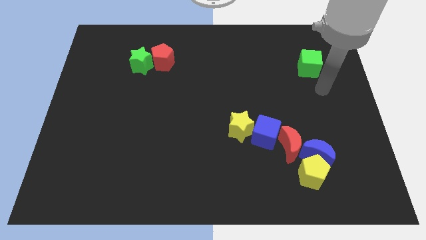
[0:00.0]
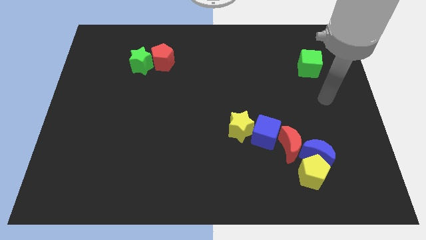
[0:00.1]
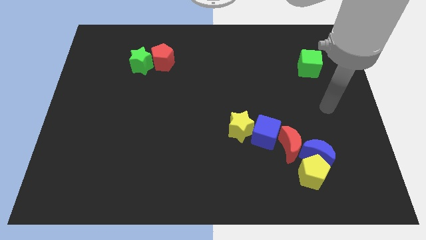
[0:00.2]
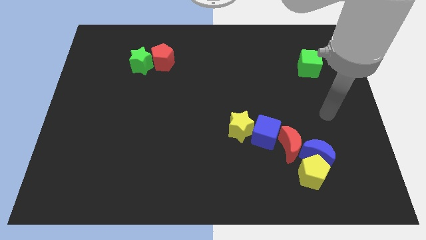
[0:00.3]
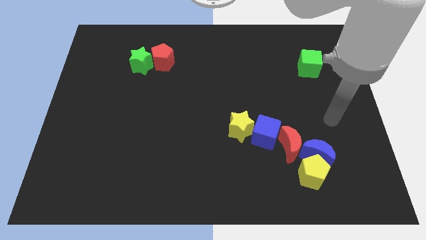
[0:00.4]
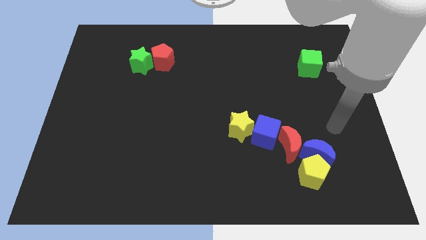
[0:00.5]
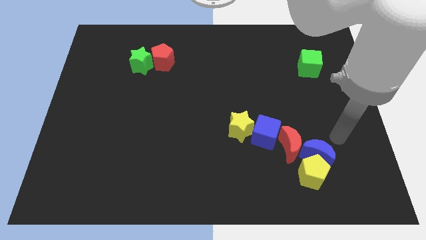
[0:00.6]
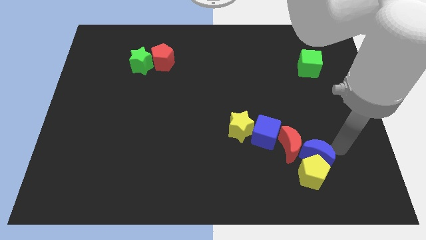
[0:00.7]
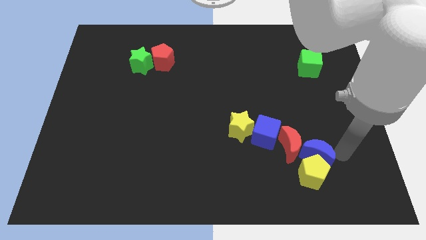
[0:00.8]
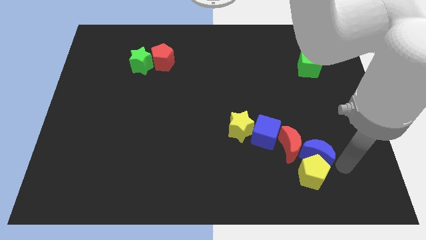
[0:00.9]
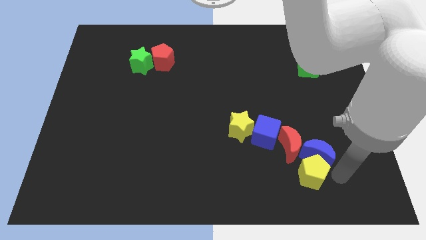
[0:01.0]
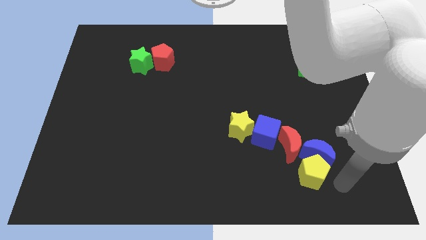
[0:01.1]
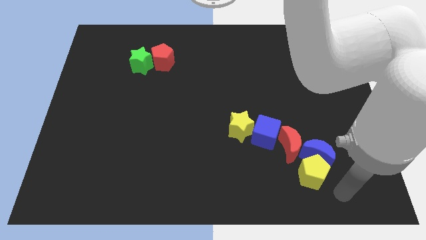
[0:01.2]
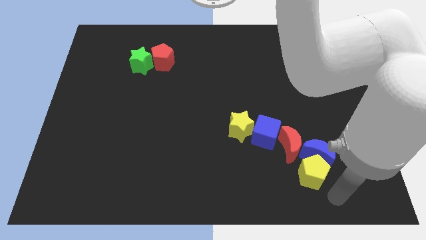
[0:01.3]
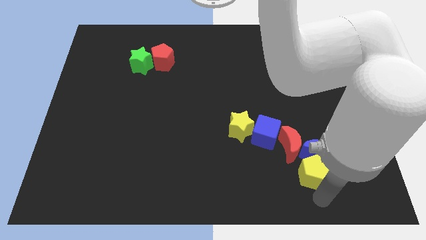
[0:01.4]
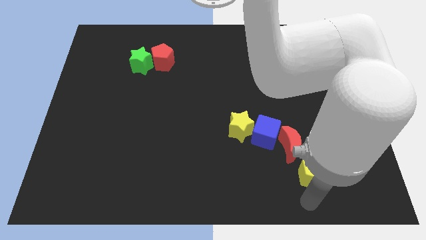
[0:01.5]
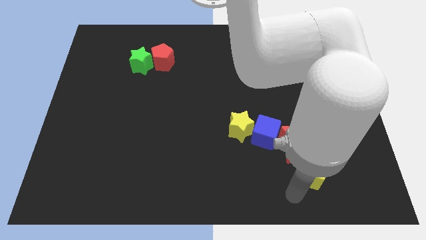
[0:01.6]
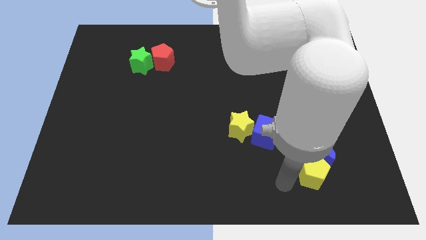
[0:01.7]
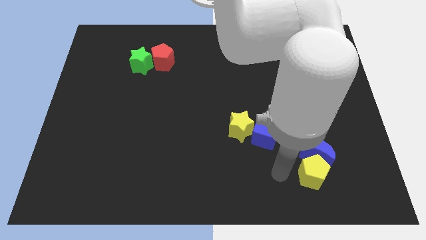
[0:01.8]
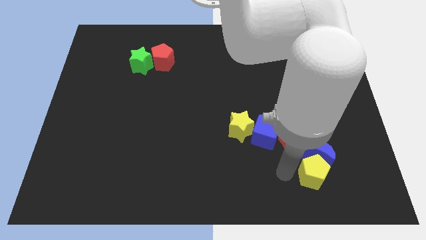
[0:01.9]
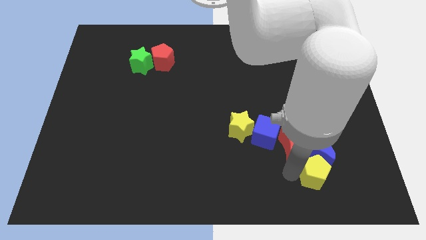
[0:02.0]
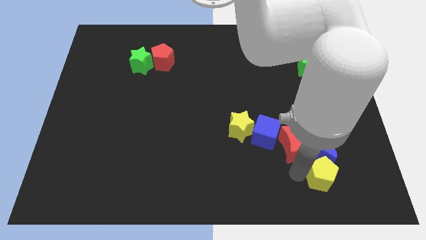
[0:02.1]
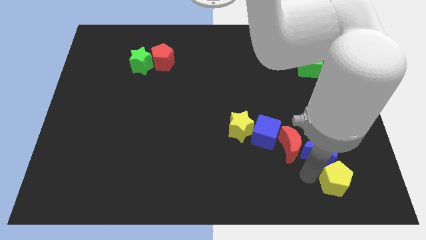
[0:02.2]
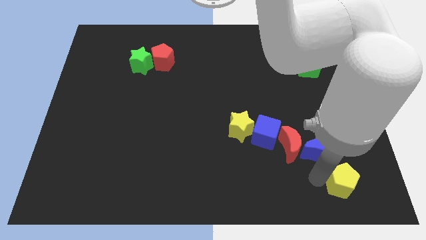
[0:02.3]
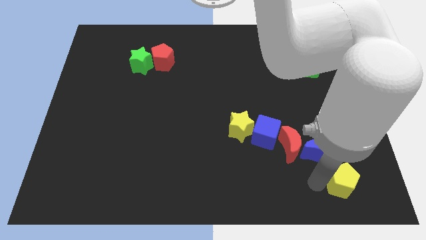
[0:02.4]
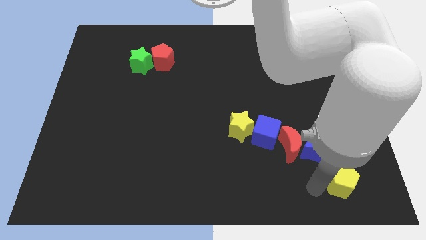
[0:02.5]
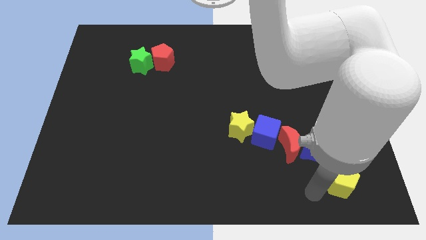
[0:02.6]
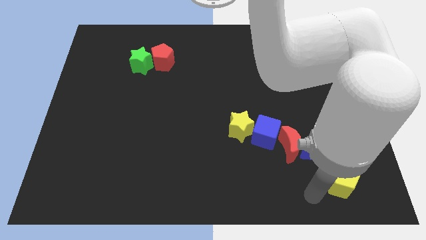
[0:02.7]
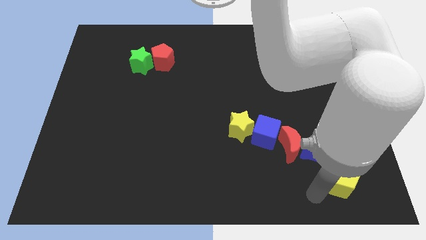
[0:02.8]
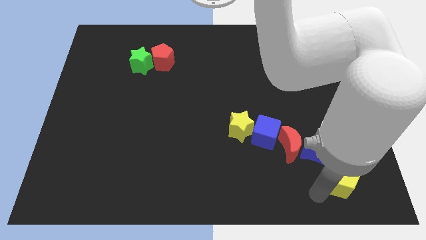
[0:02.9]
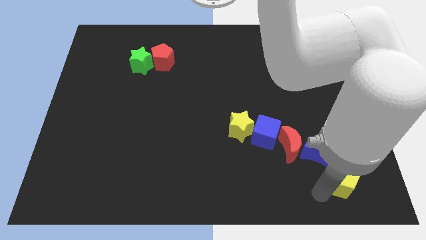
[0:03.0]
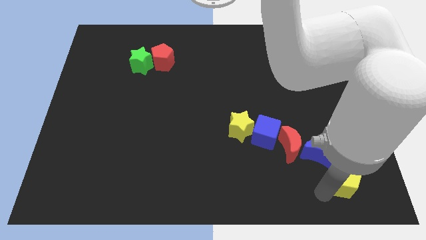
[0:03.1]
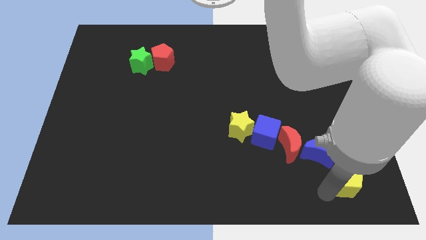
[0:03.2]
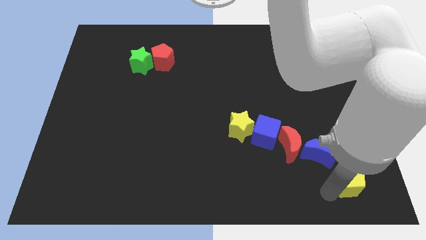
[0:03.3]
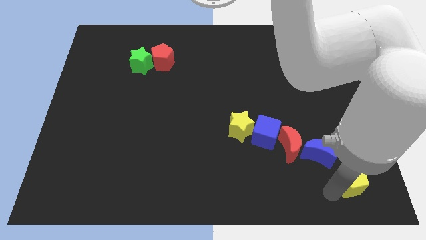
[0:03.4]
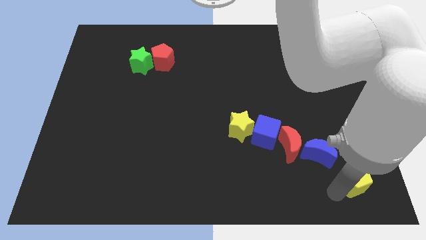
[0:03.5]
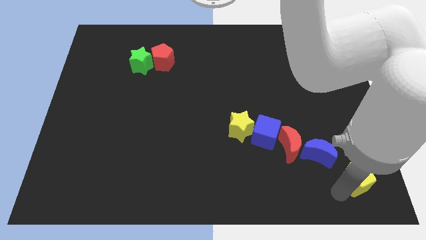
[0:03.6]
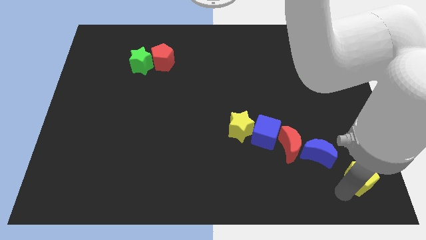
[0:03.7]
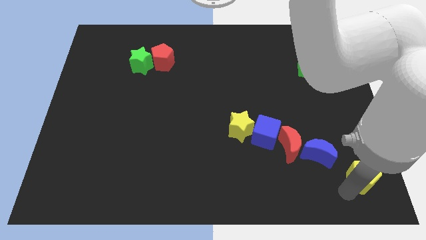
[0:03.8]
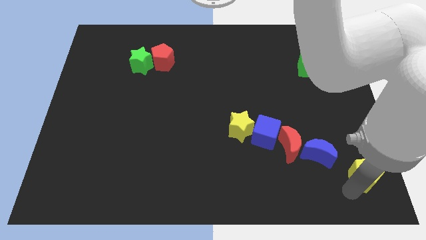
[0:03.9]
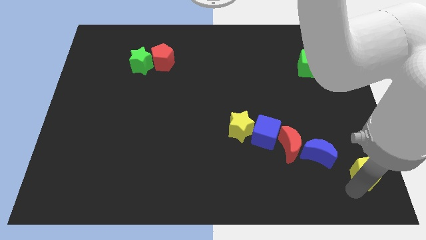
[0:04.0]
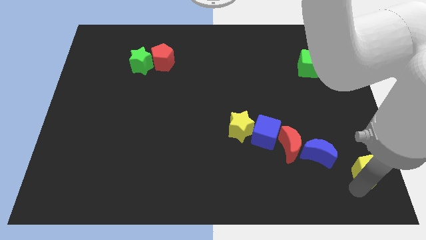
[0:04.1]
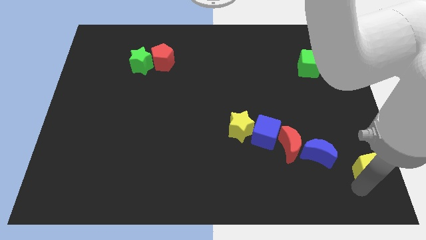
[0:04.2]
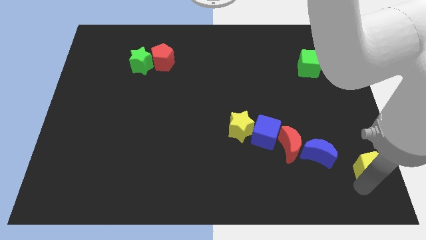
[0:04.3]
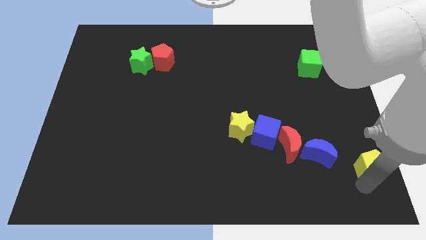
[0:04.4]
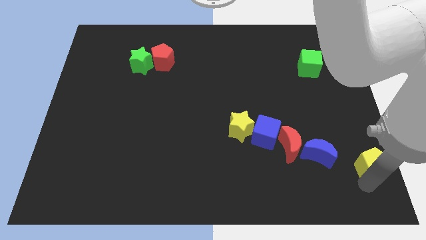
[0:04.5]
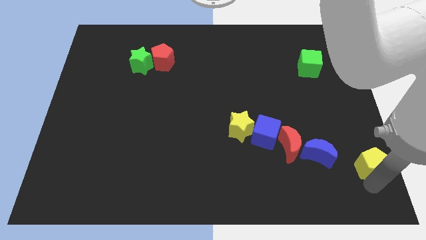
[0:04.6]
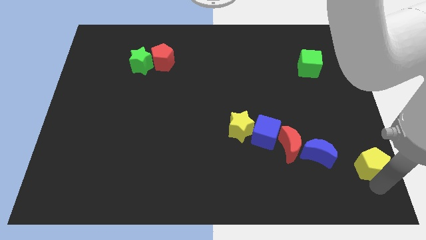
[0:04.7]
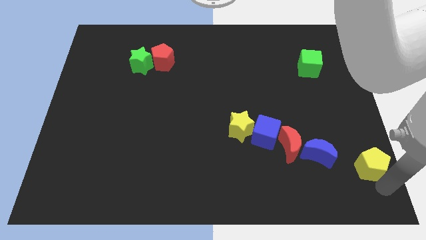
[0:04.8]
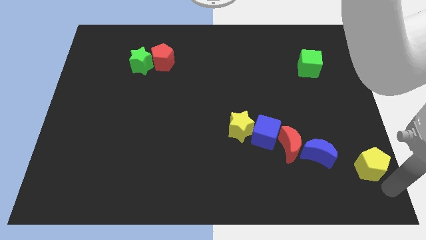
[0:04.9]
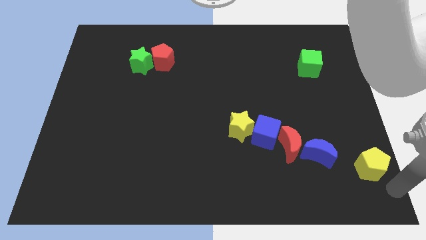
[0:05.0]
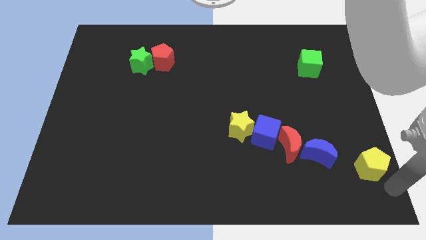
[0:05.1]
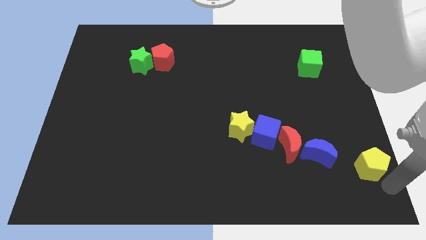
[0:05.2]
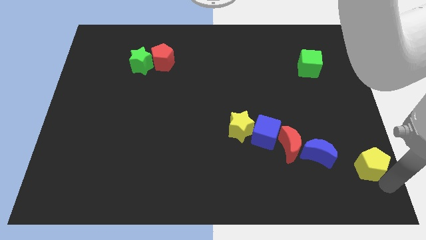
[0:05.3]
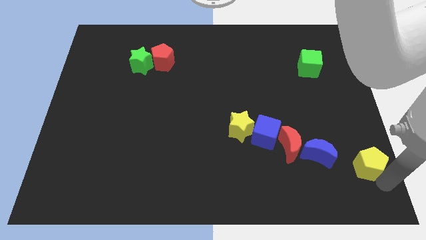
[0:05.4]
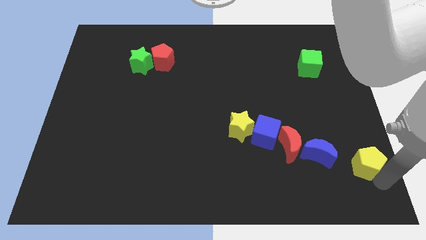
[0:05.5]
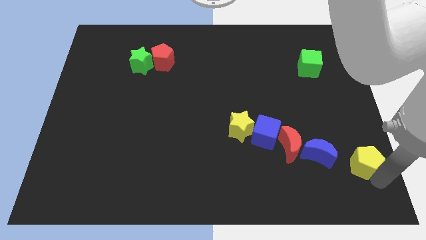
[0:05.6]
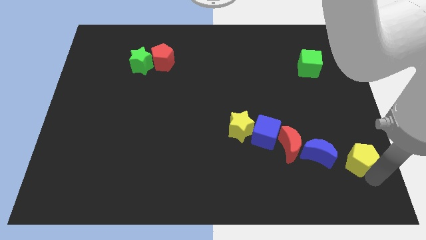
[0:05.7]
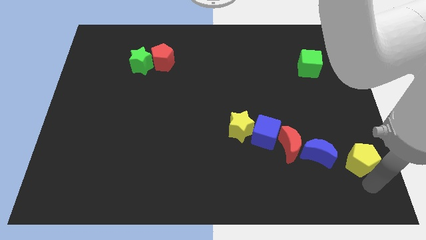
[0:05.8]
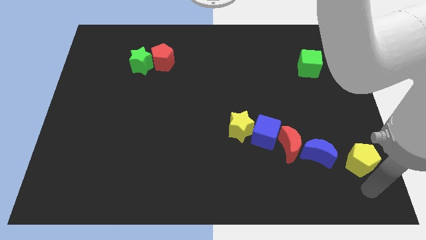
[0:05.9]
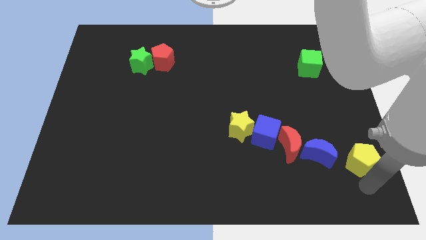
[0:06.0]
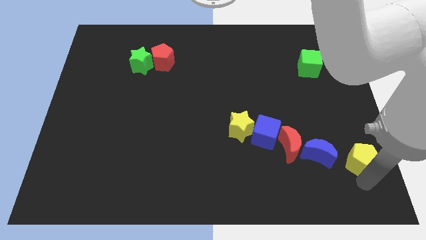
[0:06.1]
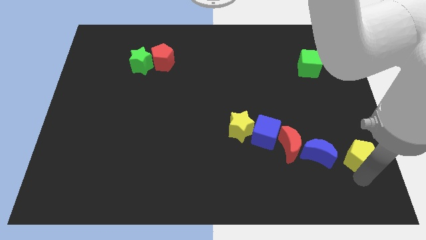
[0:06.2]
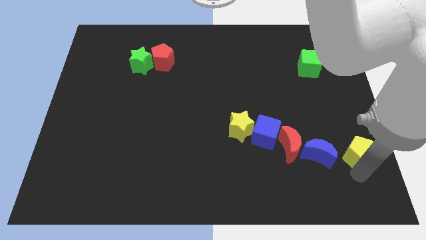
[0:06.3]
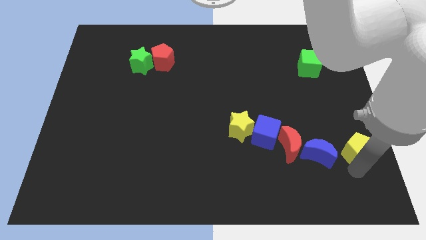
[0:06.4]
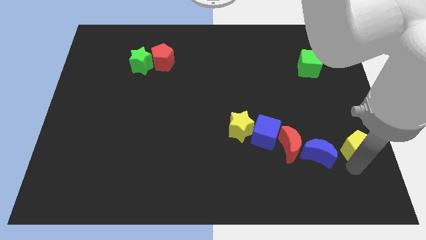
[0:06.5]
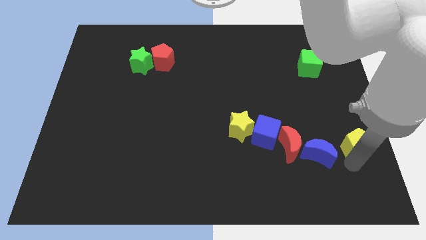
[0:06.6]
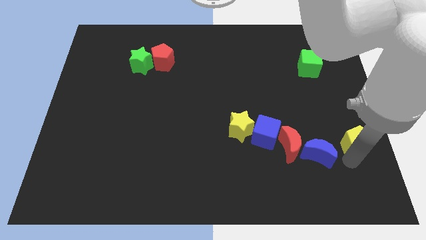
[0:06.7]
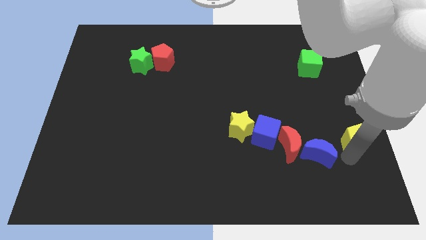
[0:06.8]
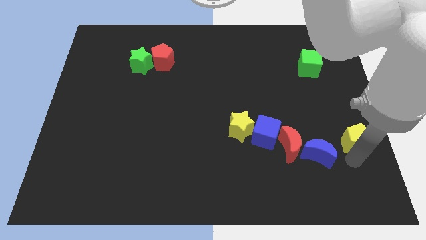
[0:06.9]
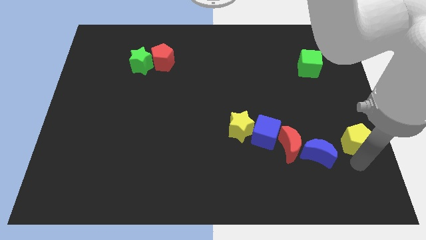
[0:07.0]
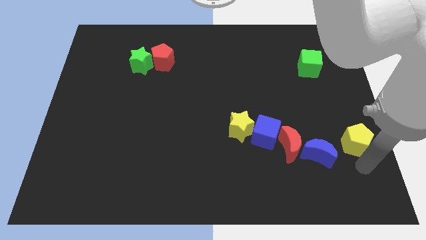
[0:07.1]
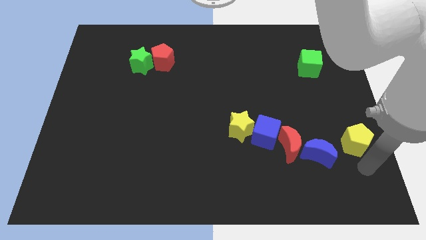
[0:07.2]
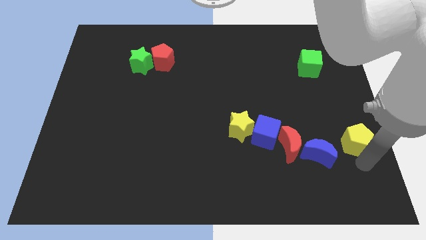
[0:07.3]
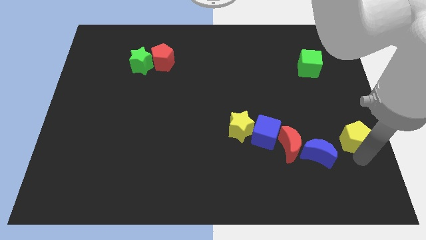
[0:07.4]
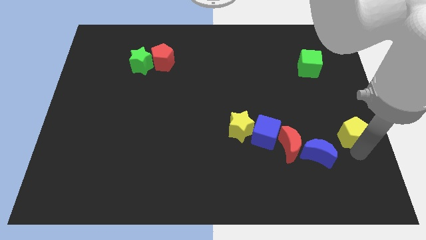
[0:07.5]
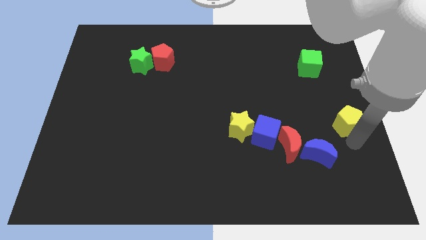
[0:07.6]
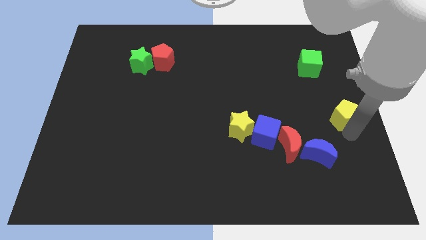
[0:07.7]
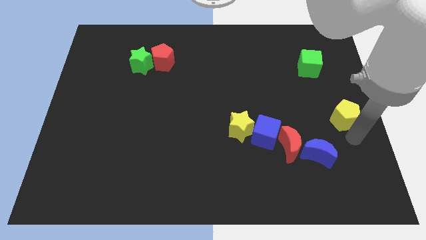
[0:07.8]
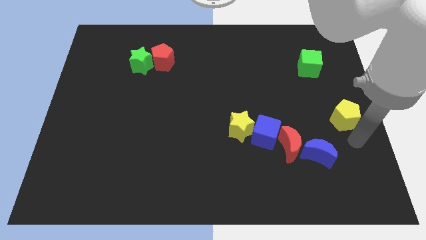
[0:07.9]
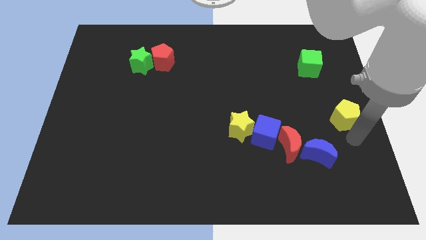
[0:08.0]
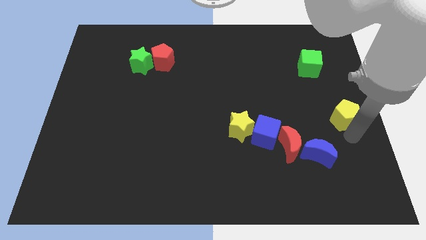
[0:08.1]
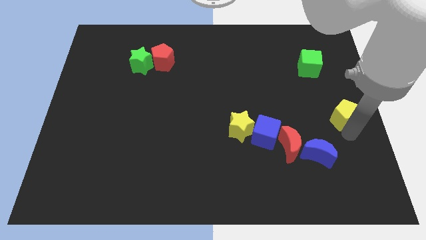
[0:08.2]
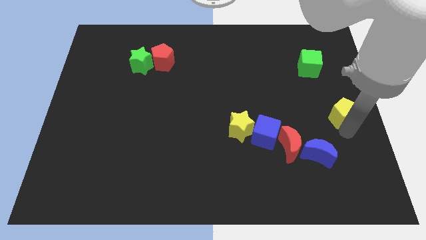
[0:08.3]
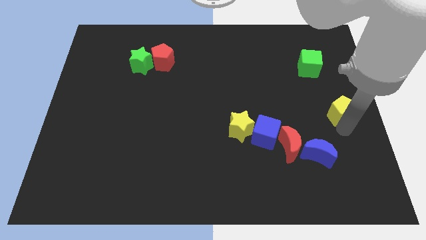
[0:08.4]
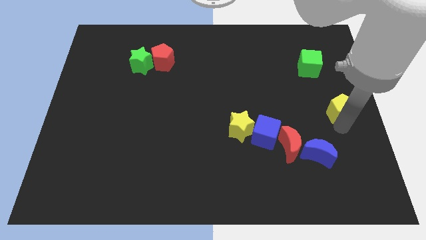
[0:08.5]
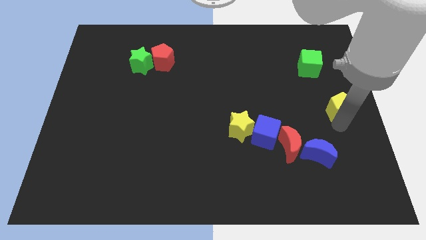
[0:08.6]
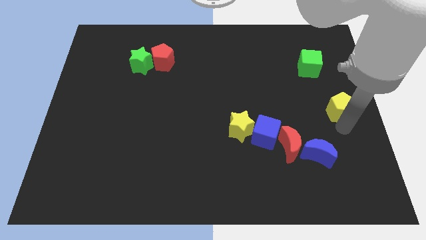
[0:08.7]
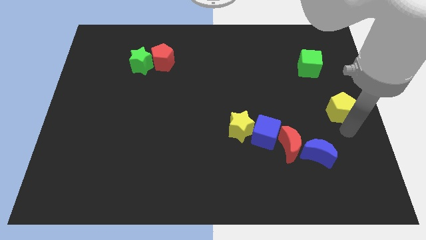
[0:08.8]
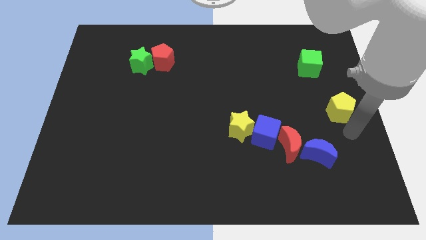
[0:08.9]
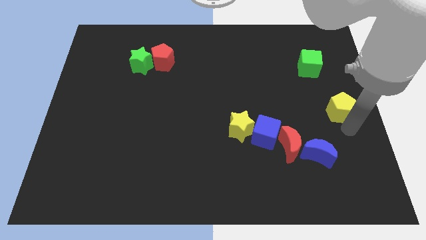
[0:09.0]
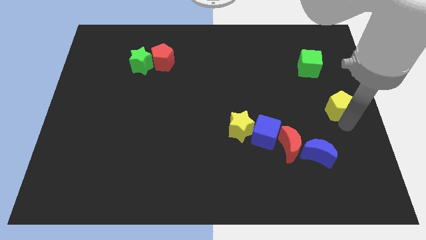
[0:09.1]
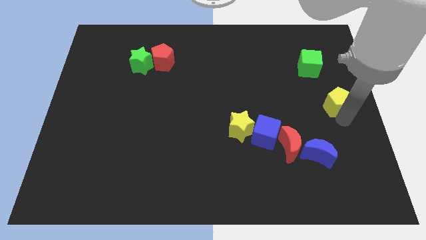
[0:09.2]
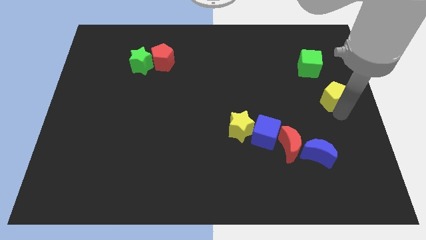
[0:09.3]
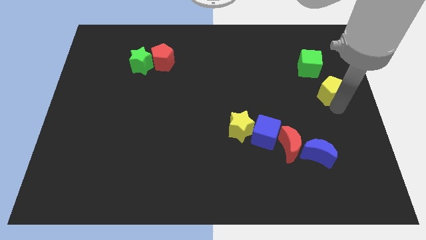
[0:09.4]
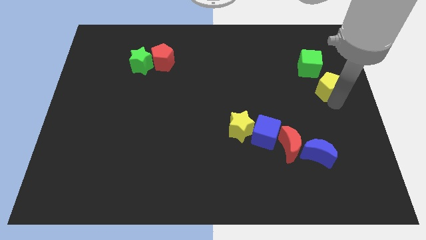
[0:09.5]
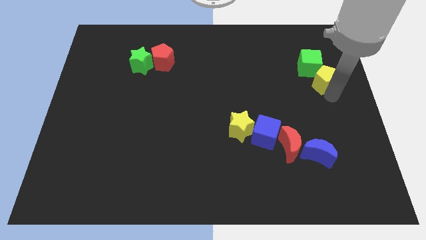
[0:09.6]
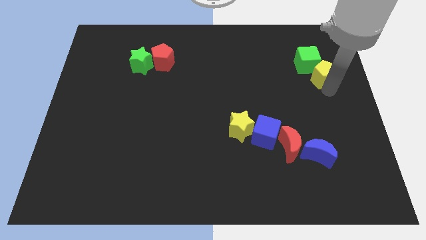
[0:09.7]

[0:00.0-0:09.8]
put the yellow pentagon next to the green cube
